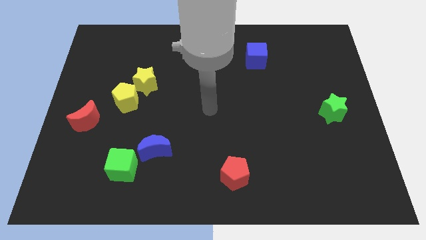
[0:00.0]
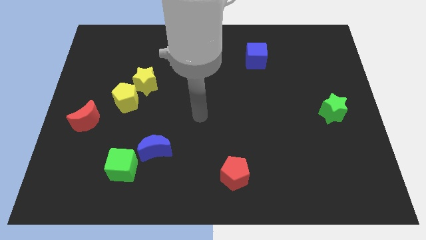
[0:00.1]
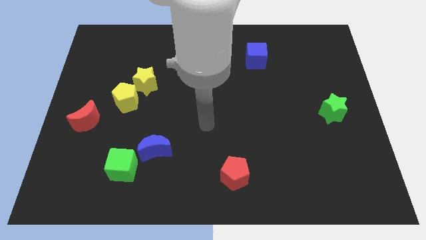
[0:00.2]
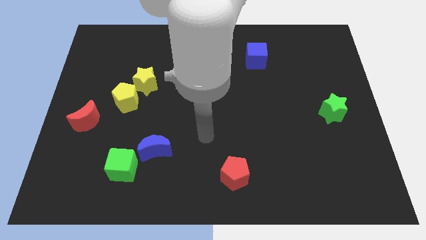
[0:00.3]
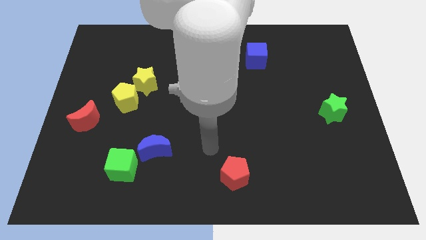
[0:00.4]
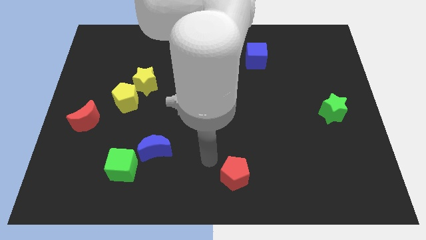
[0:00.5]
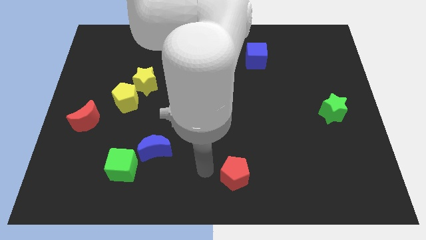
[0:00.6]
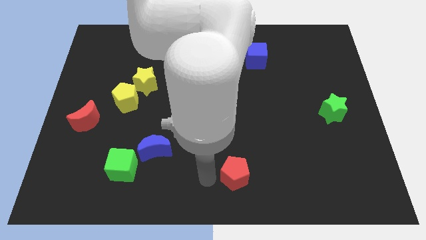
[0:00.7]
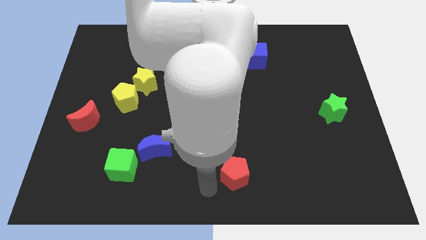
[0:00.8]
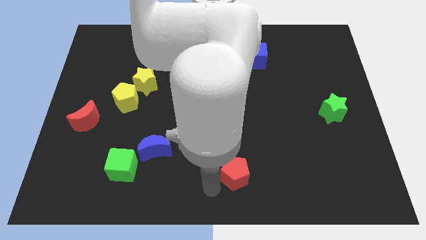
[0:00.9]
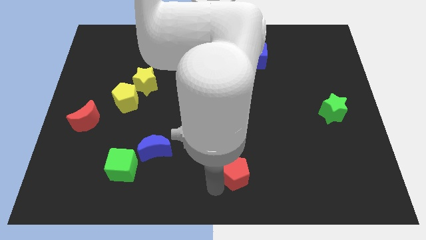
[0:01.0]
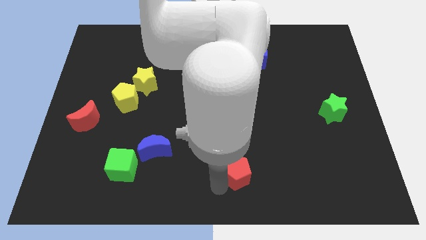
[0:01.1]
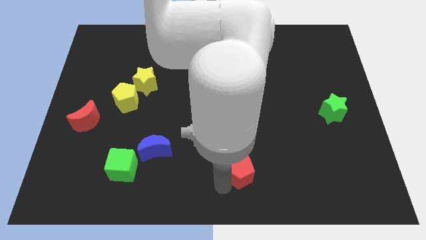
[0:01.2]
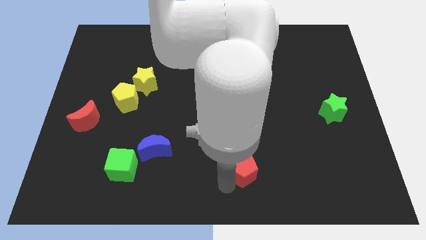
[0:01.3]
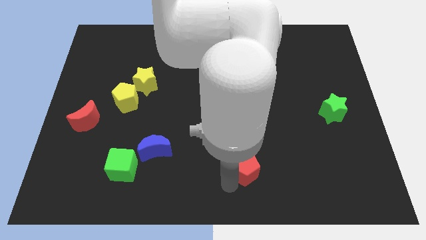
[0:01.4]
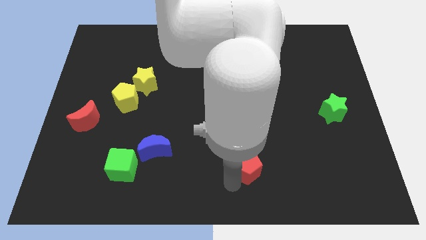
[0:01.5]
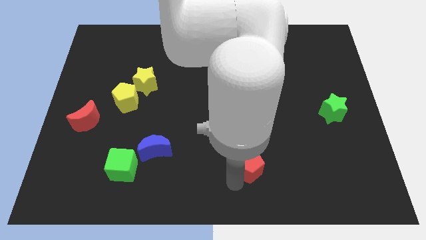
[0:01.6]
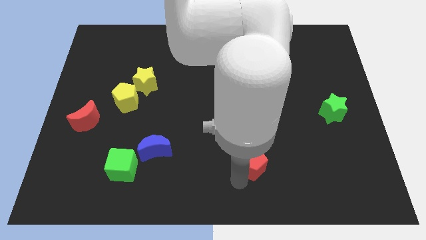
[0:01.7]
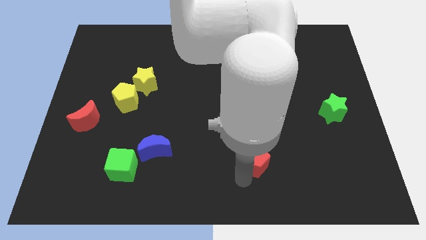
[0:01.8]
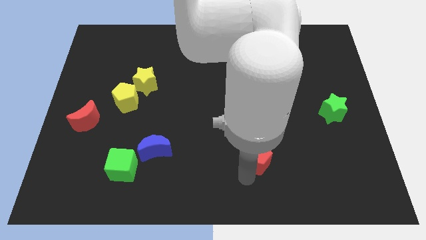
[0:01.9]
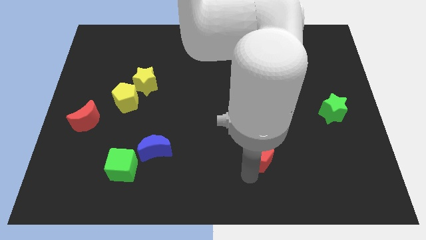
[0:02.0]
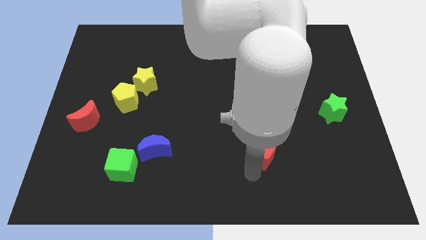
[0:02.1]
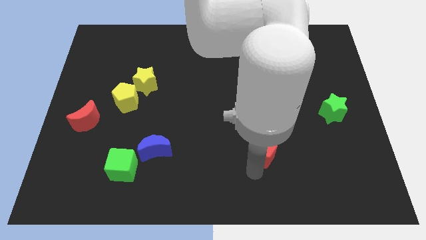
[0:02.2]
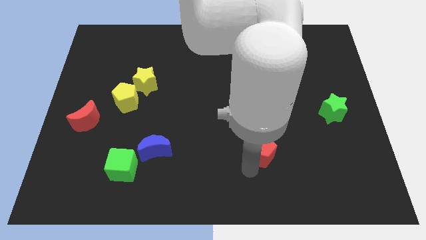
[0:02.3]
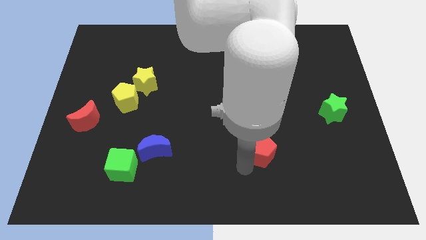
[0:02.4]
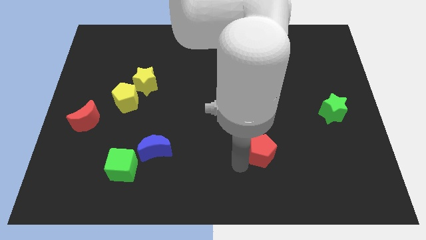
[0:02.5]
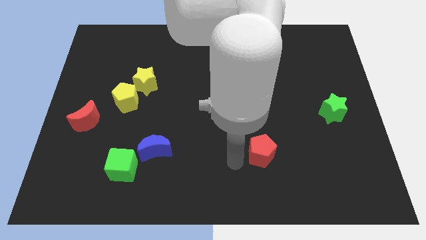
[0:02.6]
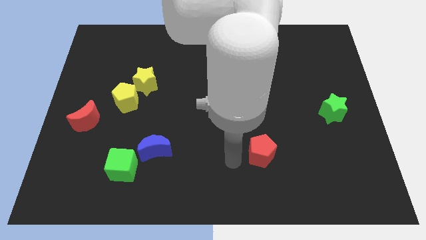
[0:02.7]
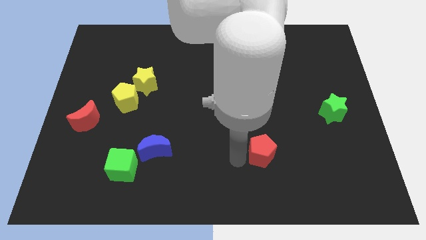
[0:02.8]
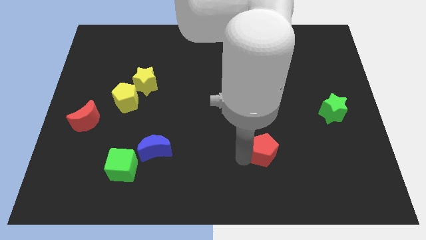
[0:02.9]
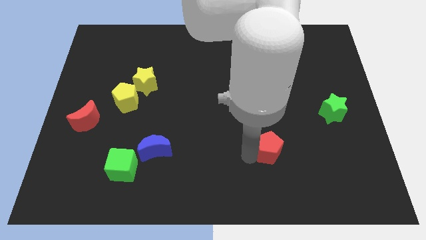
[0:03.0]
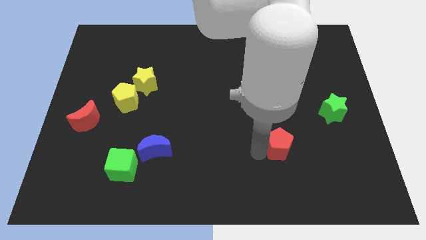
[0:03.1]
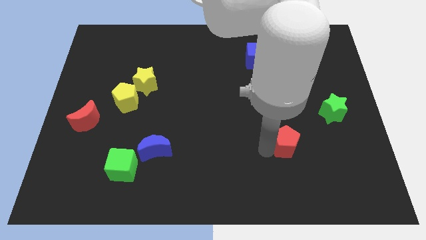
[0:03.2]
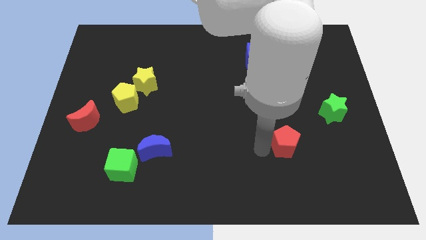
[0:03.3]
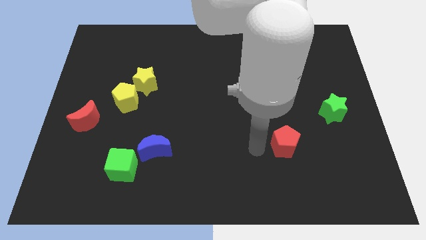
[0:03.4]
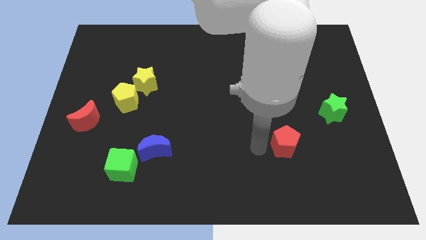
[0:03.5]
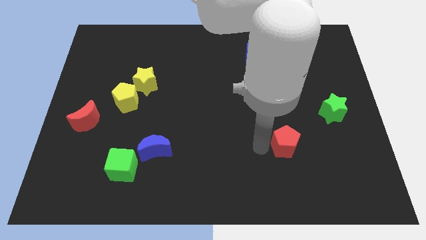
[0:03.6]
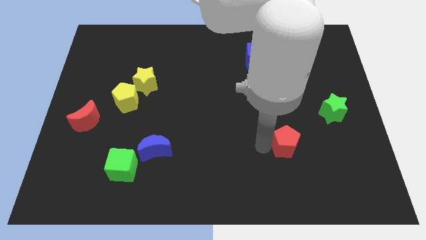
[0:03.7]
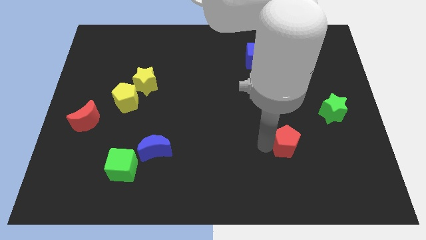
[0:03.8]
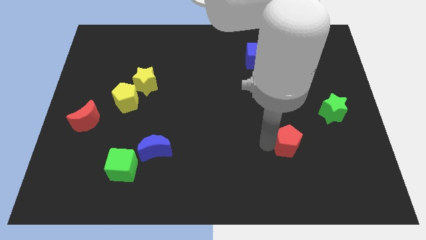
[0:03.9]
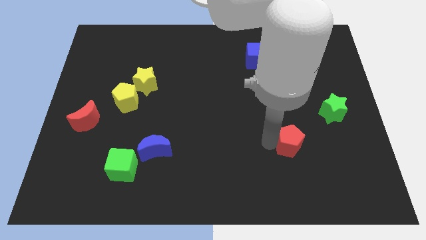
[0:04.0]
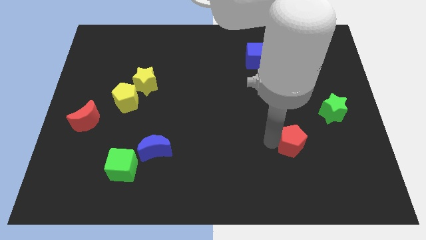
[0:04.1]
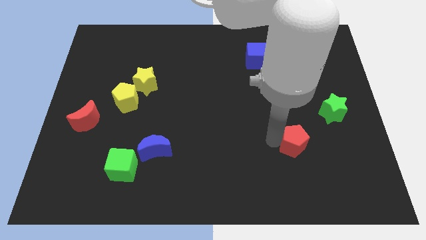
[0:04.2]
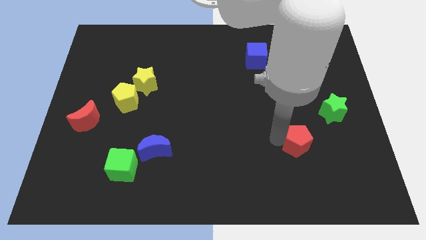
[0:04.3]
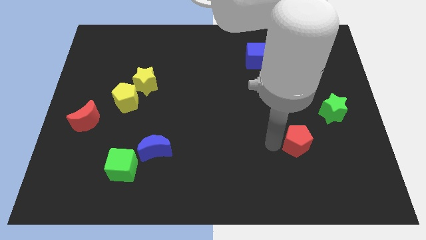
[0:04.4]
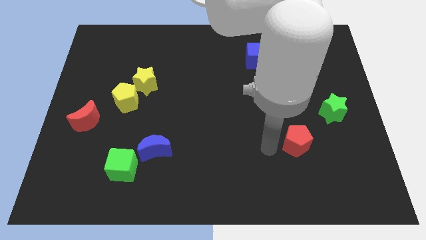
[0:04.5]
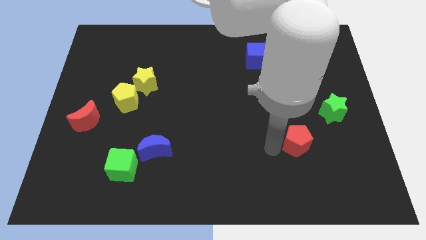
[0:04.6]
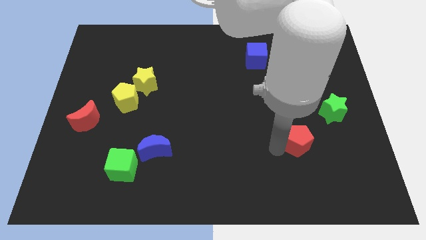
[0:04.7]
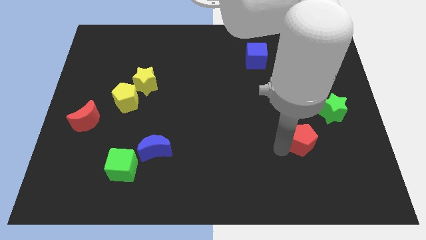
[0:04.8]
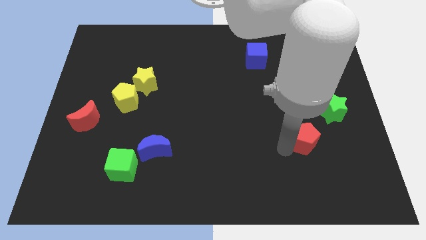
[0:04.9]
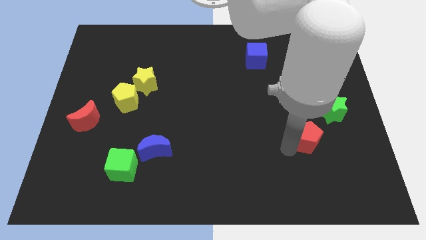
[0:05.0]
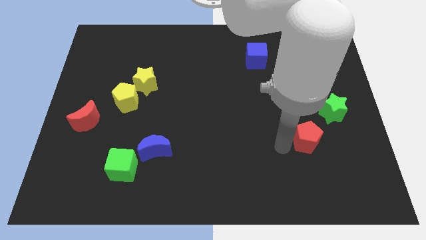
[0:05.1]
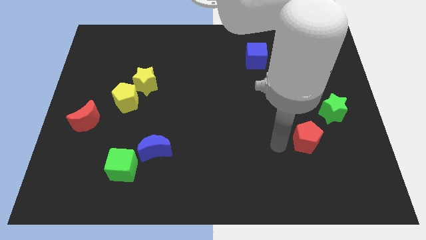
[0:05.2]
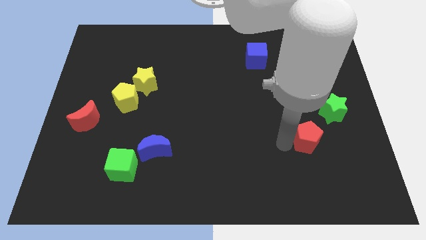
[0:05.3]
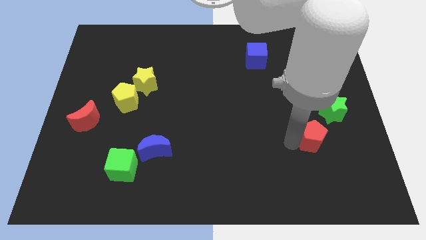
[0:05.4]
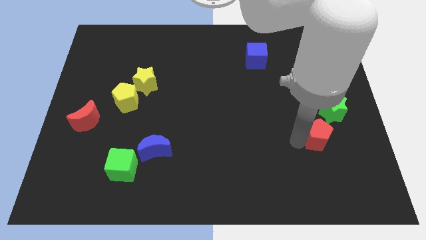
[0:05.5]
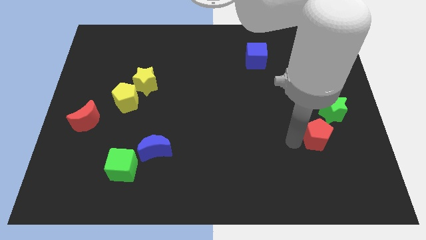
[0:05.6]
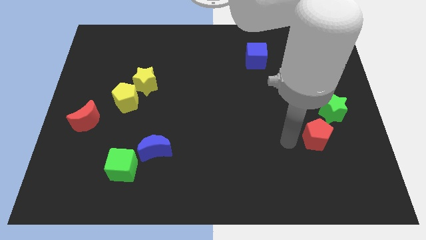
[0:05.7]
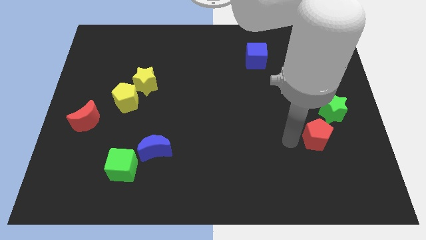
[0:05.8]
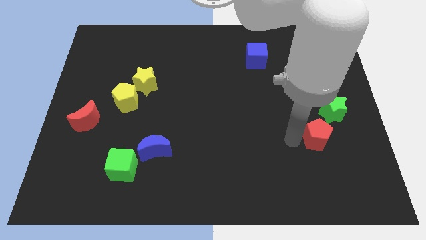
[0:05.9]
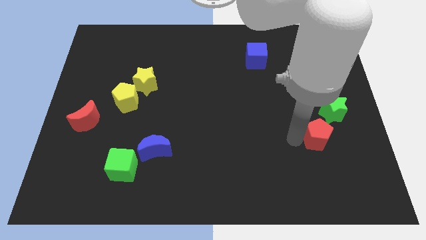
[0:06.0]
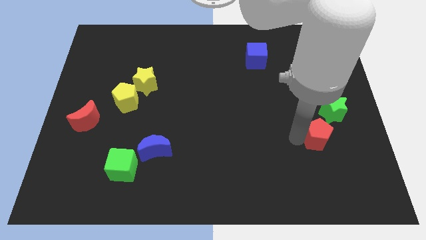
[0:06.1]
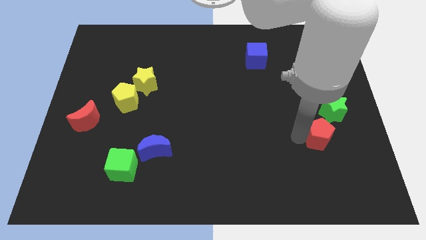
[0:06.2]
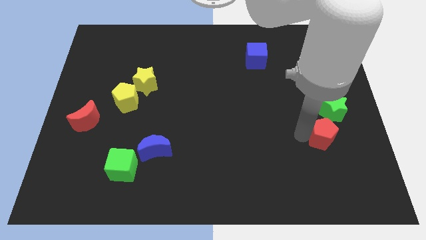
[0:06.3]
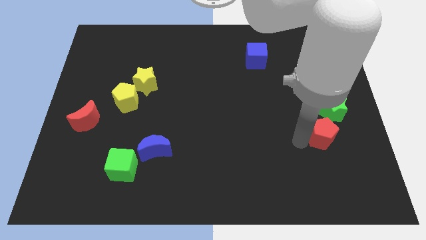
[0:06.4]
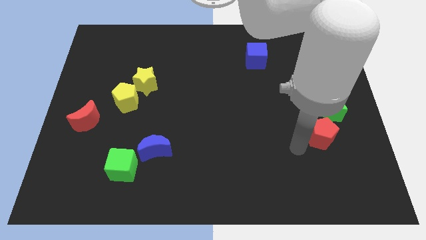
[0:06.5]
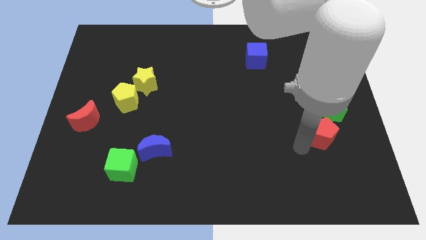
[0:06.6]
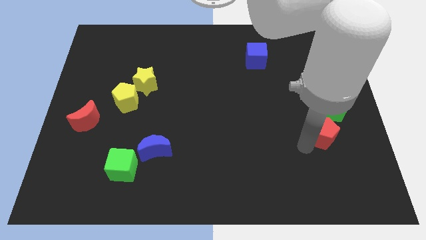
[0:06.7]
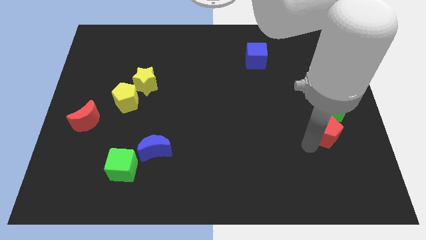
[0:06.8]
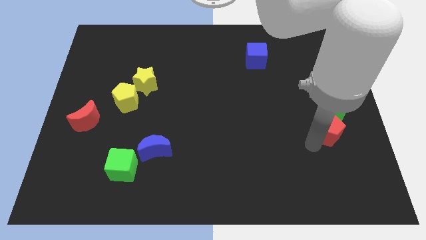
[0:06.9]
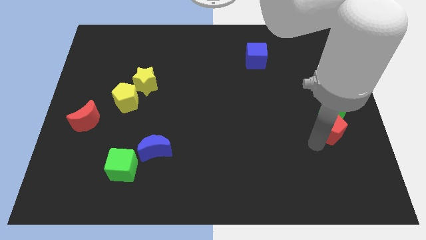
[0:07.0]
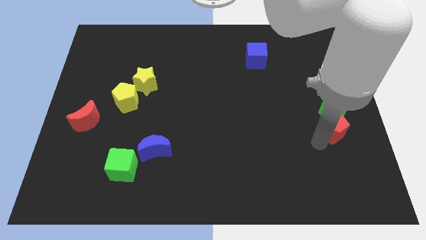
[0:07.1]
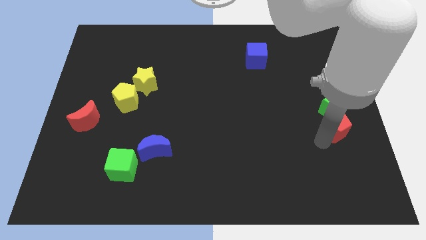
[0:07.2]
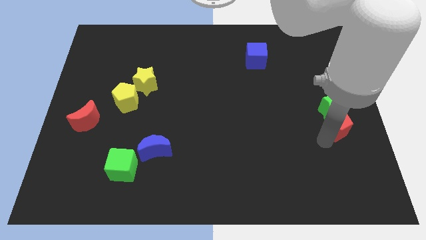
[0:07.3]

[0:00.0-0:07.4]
push the red pentagon to the right side
